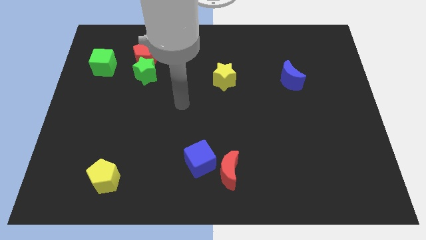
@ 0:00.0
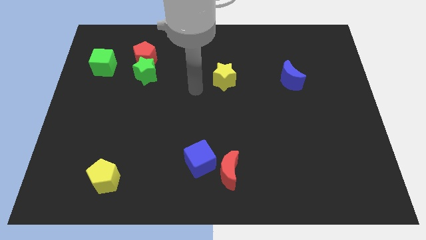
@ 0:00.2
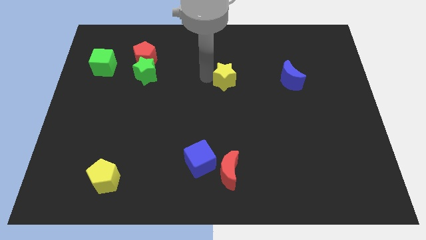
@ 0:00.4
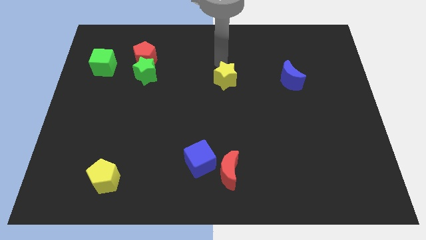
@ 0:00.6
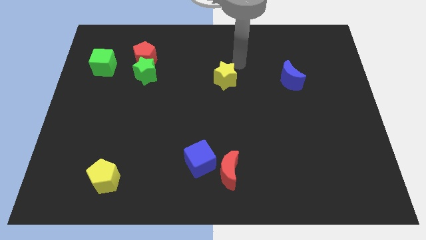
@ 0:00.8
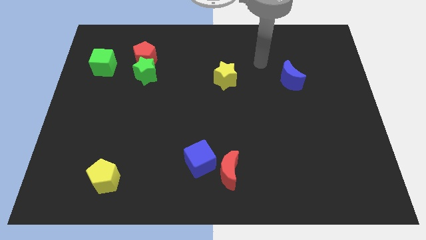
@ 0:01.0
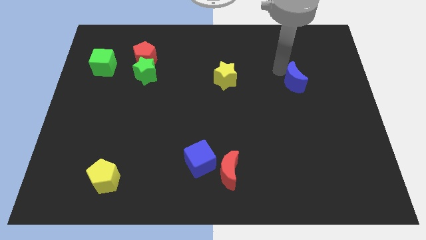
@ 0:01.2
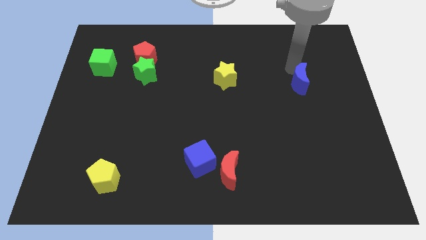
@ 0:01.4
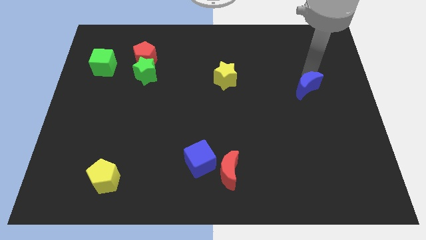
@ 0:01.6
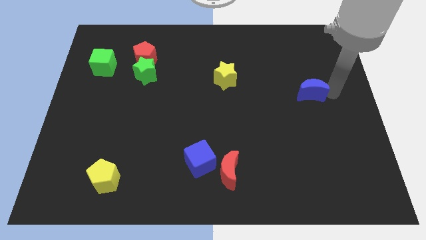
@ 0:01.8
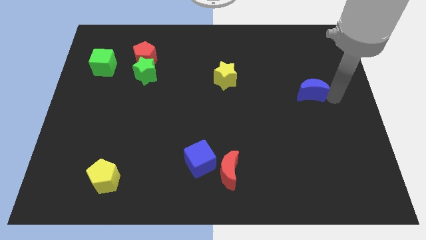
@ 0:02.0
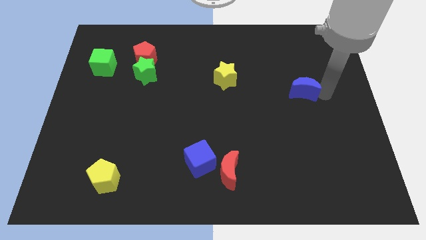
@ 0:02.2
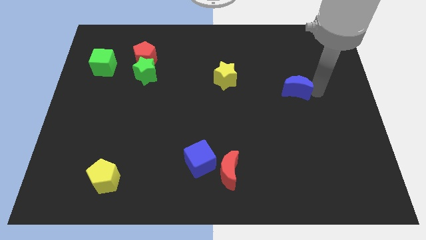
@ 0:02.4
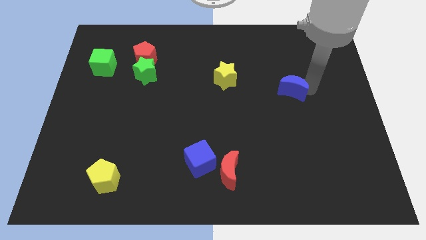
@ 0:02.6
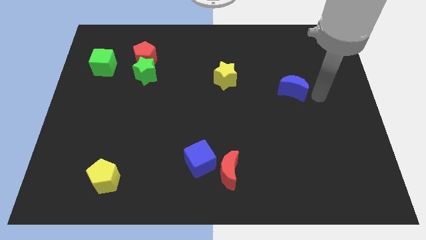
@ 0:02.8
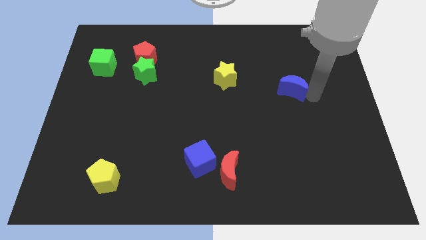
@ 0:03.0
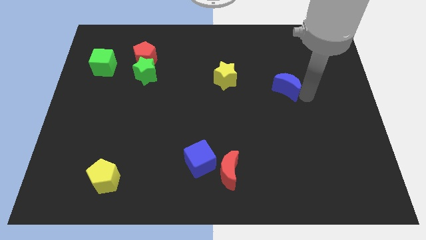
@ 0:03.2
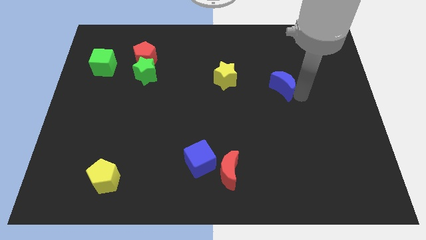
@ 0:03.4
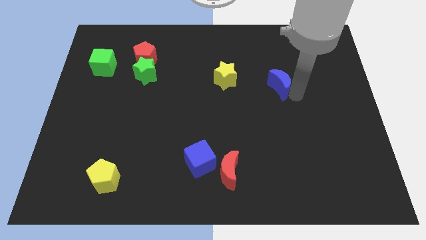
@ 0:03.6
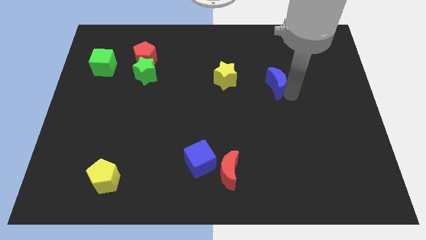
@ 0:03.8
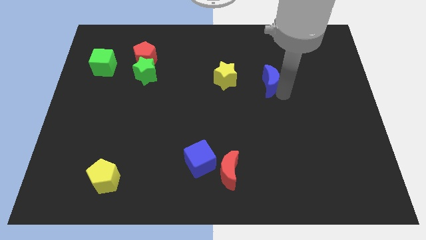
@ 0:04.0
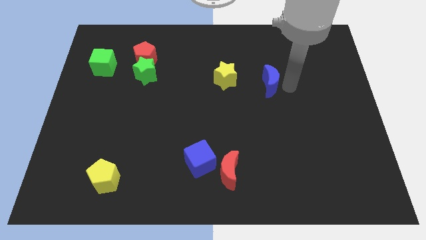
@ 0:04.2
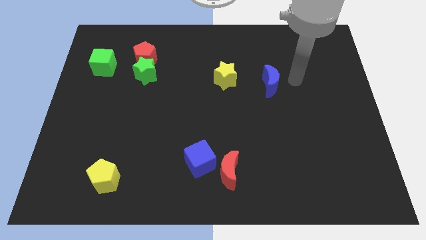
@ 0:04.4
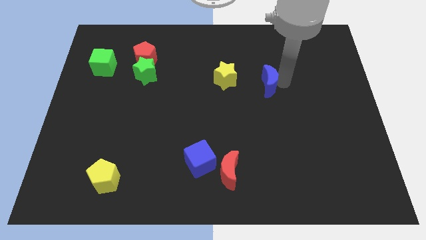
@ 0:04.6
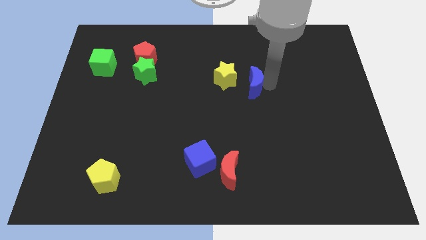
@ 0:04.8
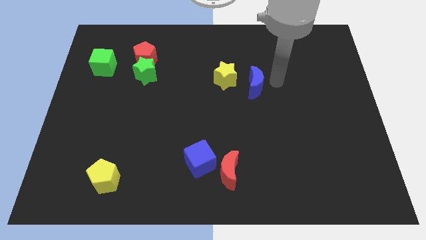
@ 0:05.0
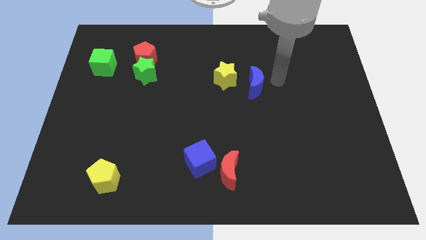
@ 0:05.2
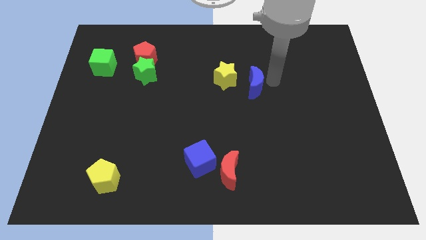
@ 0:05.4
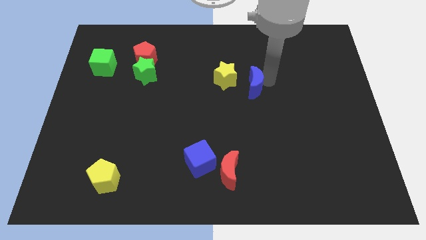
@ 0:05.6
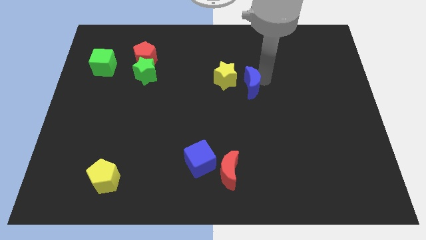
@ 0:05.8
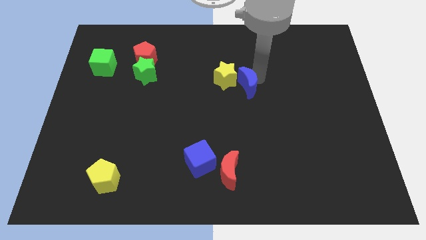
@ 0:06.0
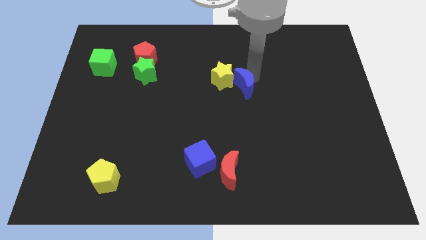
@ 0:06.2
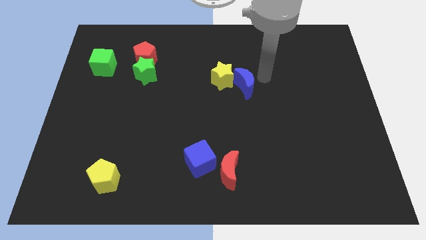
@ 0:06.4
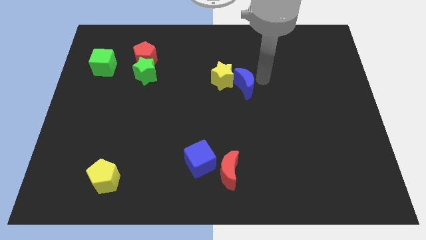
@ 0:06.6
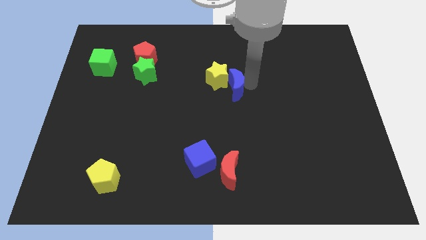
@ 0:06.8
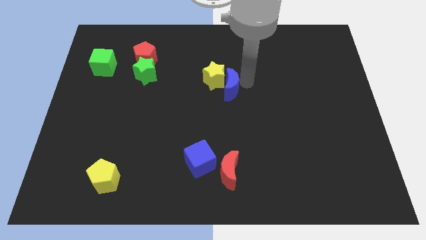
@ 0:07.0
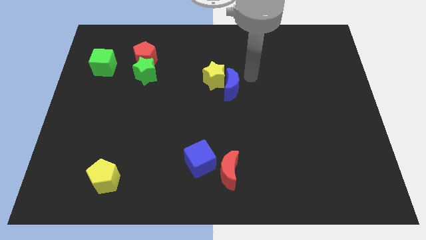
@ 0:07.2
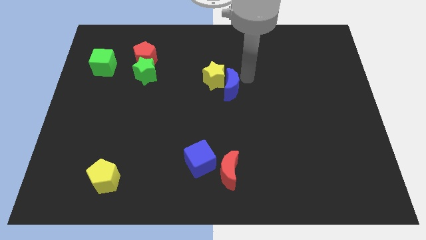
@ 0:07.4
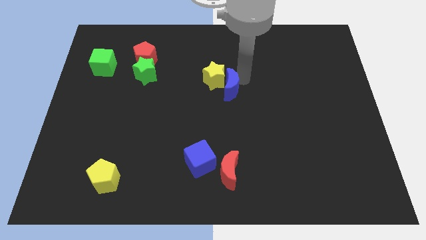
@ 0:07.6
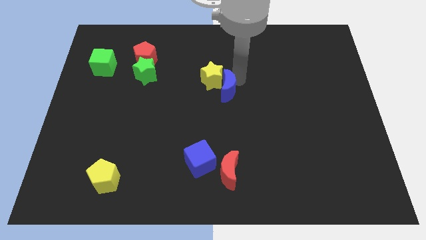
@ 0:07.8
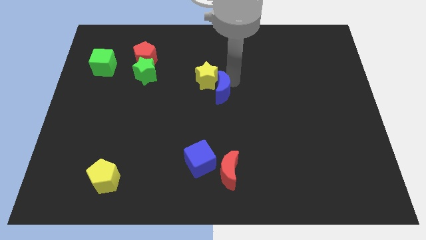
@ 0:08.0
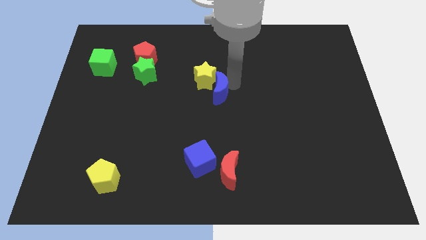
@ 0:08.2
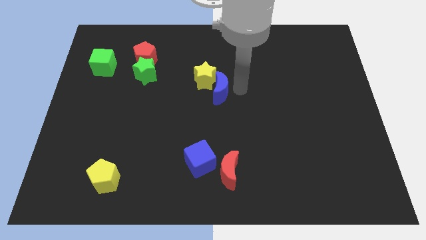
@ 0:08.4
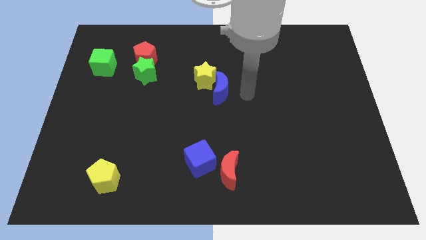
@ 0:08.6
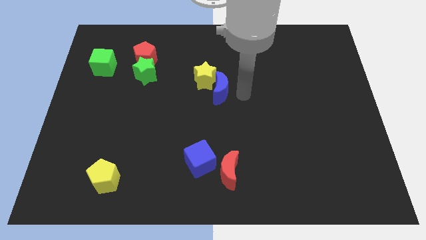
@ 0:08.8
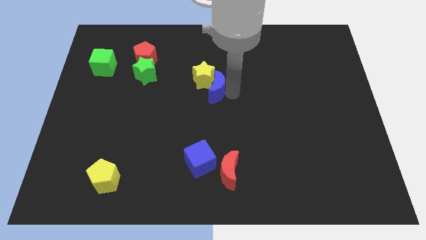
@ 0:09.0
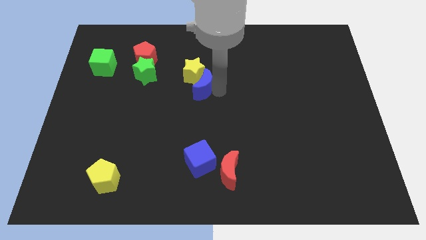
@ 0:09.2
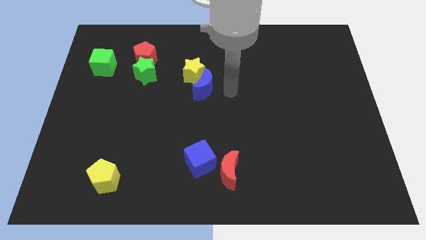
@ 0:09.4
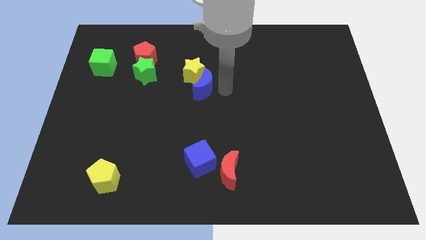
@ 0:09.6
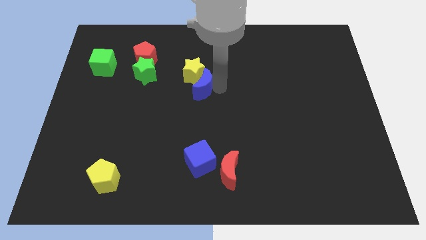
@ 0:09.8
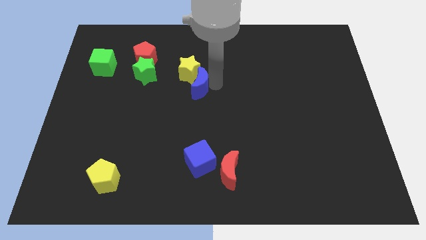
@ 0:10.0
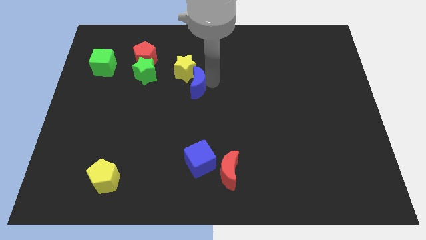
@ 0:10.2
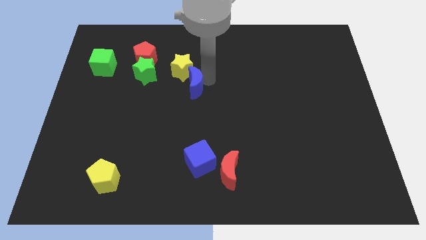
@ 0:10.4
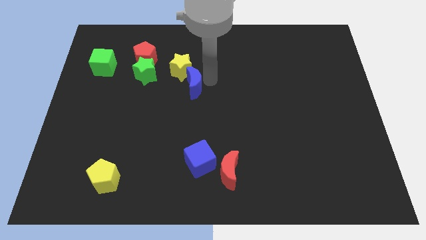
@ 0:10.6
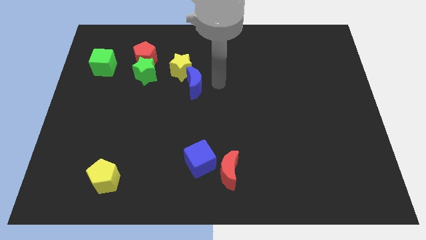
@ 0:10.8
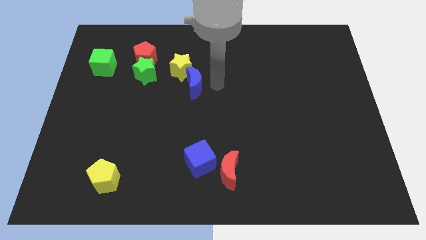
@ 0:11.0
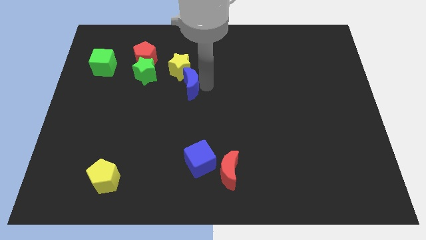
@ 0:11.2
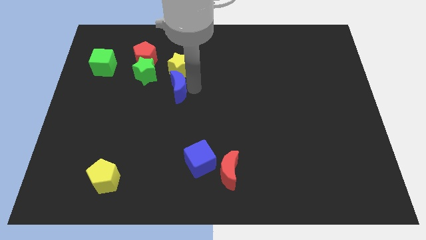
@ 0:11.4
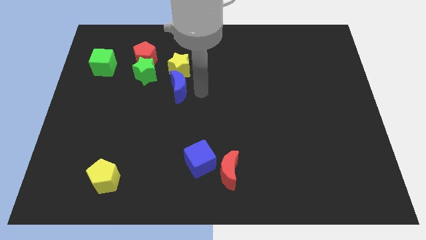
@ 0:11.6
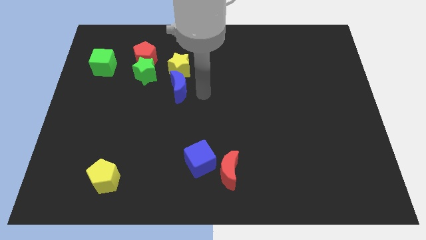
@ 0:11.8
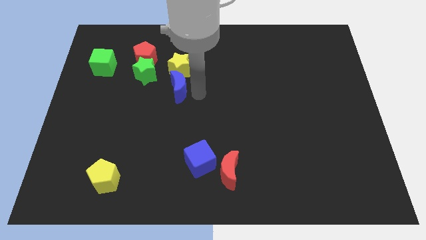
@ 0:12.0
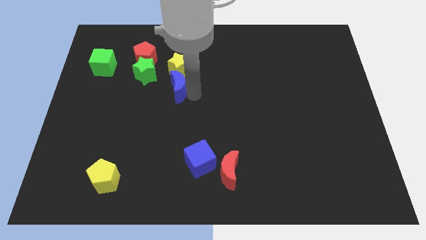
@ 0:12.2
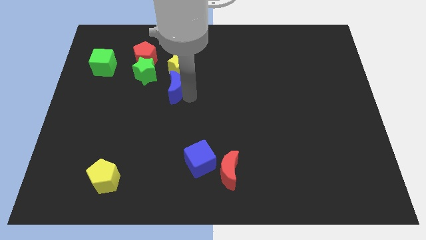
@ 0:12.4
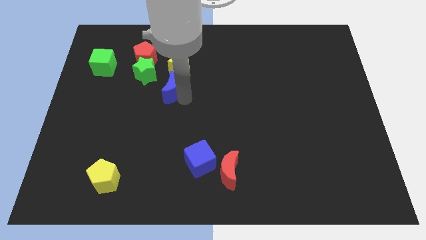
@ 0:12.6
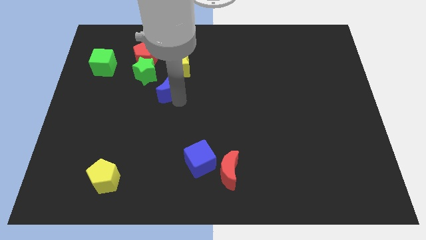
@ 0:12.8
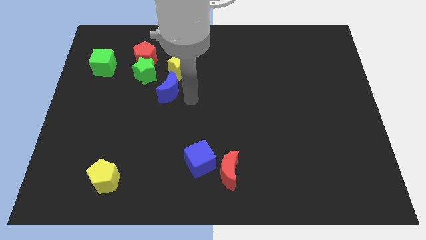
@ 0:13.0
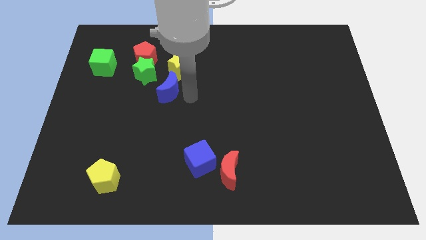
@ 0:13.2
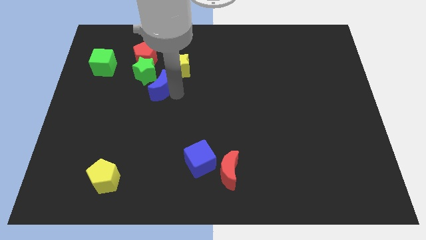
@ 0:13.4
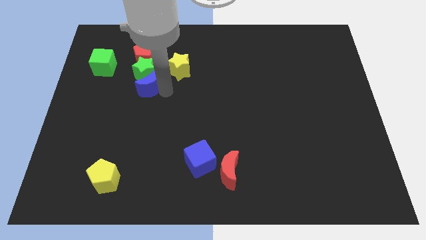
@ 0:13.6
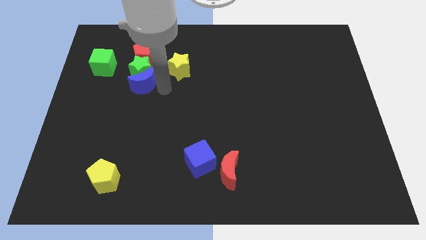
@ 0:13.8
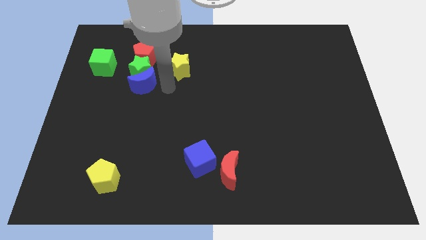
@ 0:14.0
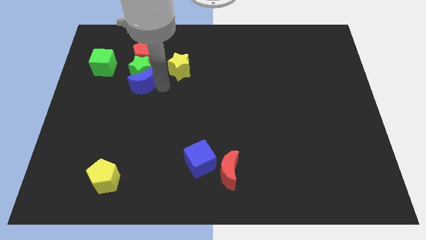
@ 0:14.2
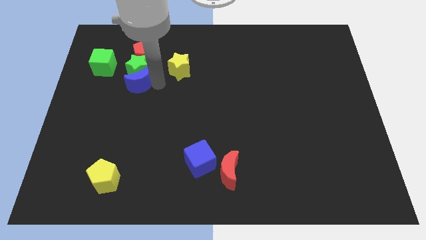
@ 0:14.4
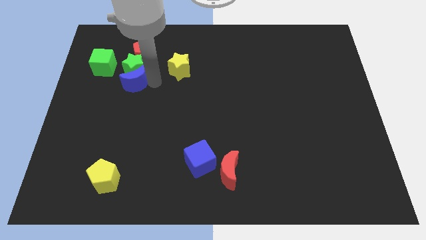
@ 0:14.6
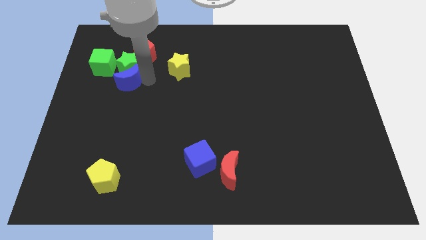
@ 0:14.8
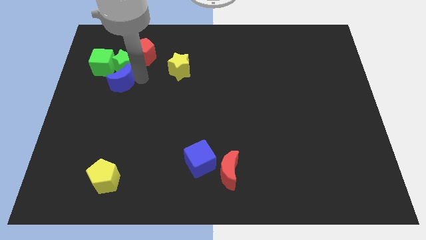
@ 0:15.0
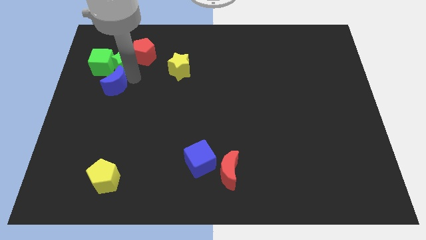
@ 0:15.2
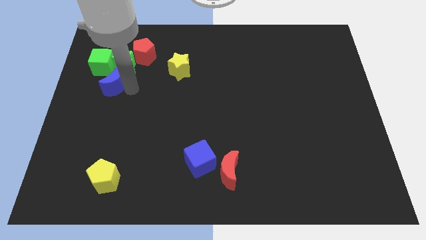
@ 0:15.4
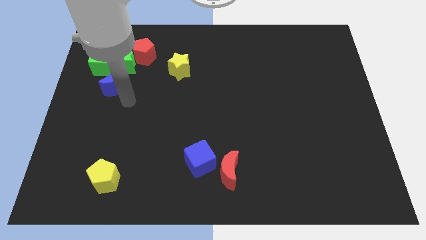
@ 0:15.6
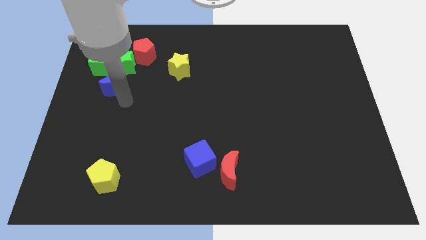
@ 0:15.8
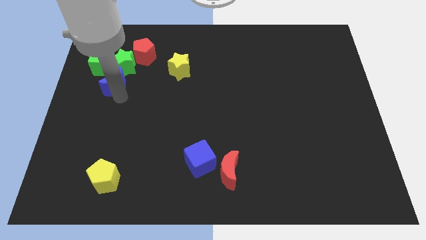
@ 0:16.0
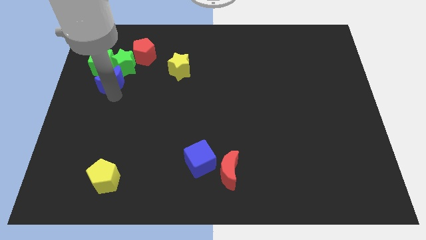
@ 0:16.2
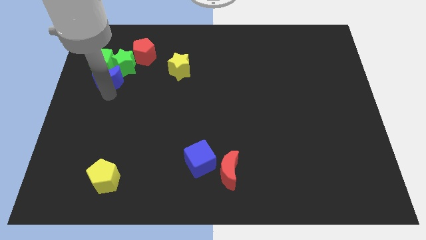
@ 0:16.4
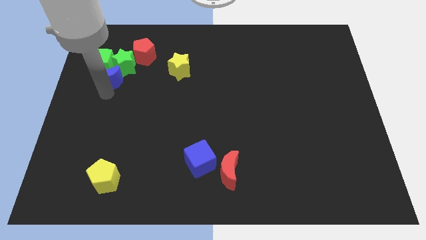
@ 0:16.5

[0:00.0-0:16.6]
push the blue moon towards the green cube
